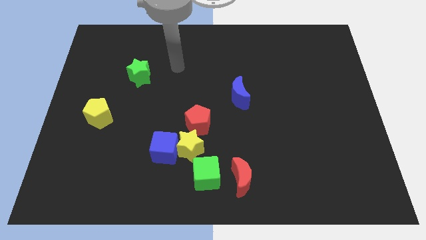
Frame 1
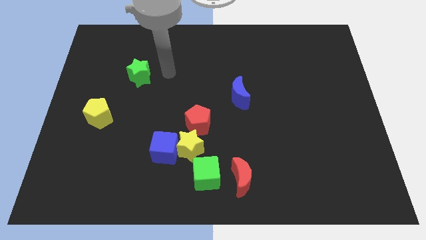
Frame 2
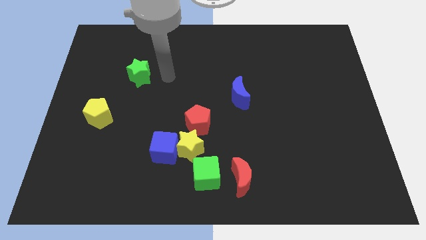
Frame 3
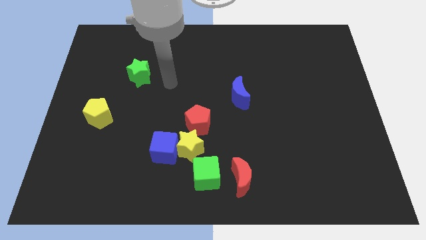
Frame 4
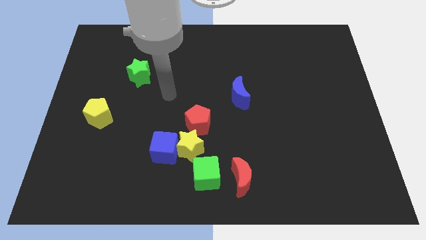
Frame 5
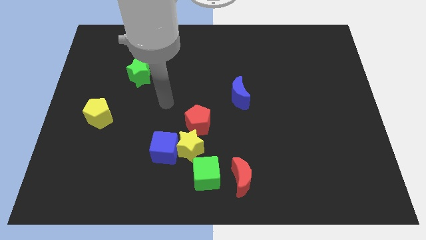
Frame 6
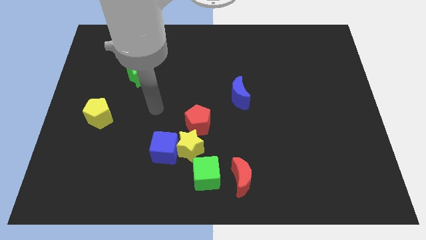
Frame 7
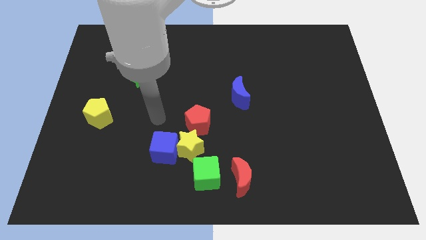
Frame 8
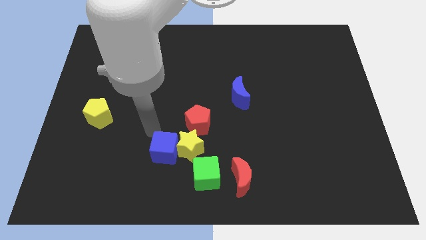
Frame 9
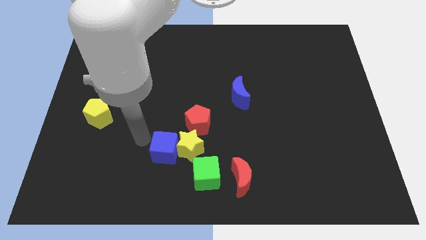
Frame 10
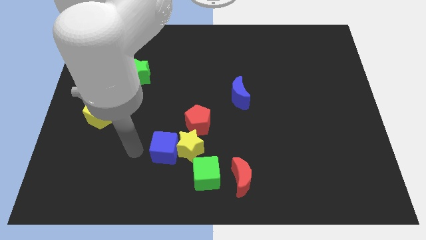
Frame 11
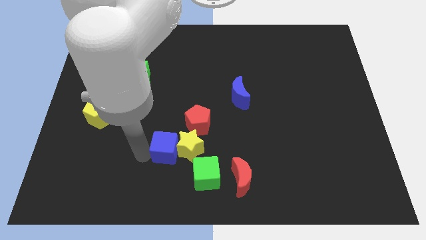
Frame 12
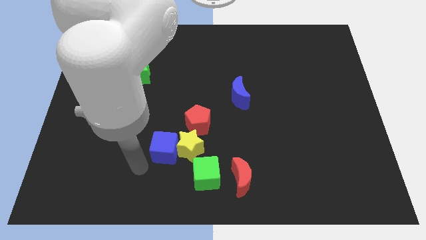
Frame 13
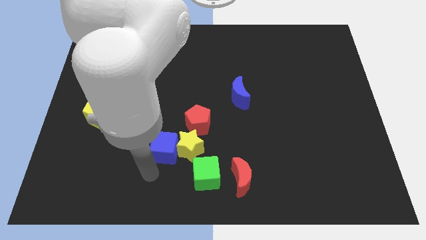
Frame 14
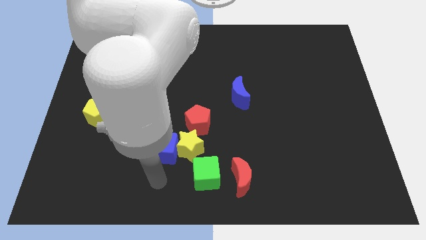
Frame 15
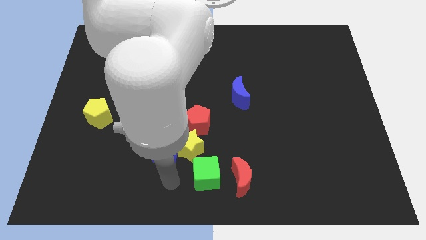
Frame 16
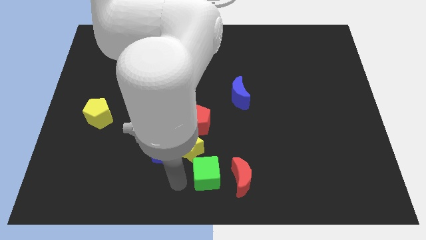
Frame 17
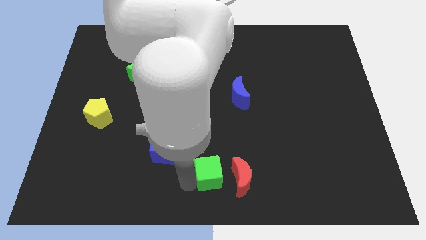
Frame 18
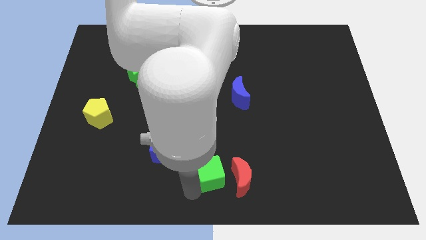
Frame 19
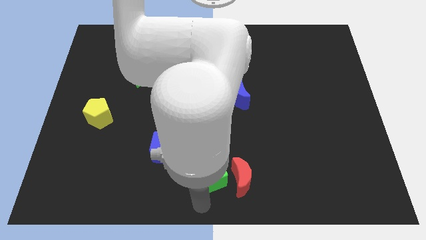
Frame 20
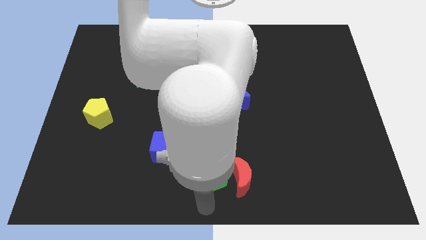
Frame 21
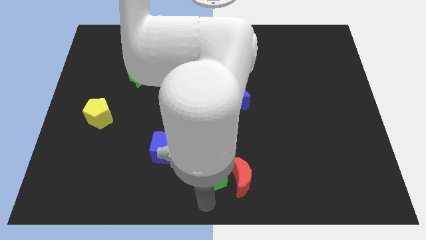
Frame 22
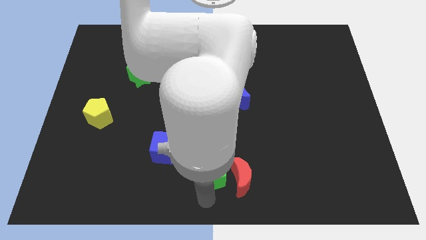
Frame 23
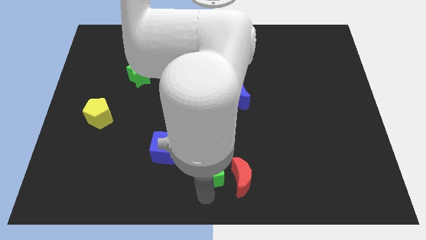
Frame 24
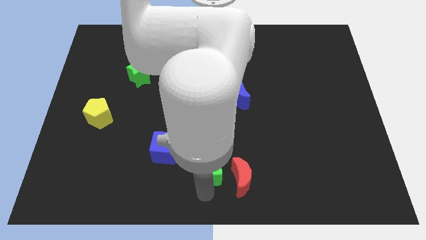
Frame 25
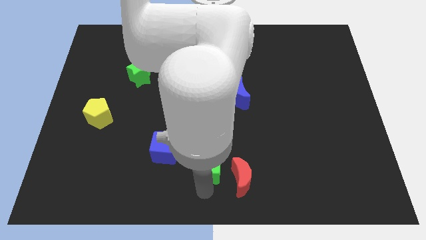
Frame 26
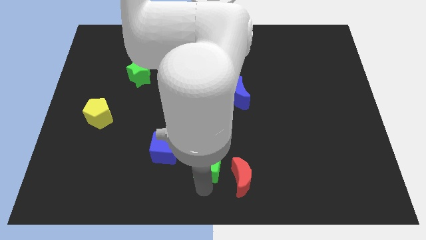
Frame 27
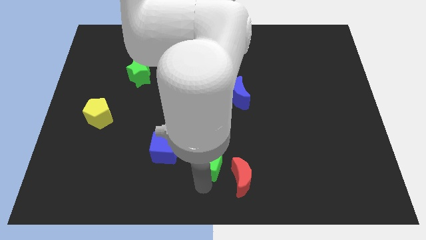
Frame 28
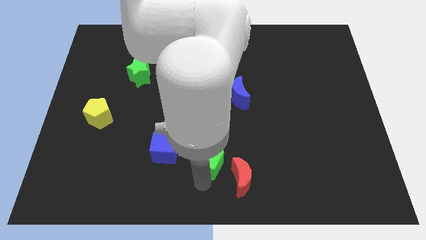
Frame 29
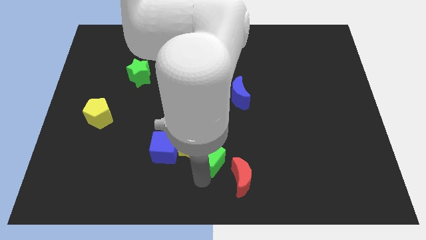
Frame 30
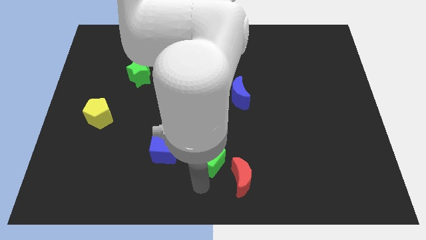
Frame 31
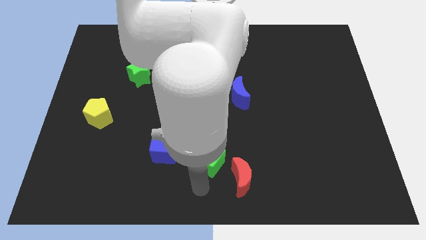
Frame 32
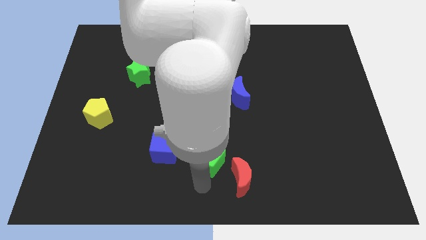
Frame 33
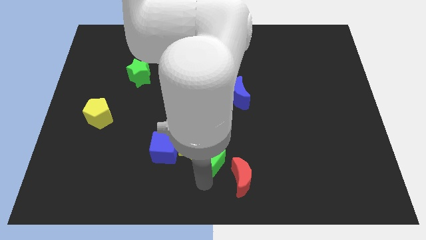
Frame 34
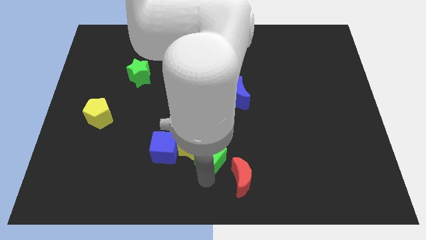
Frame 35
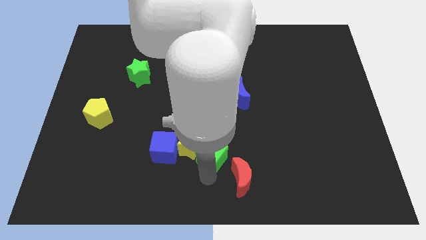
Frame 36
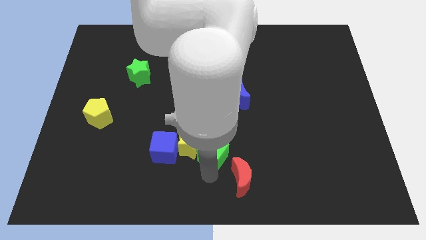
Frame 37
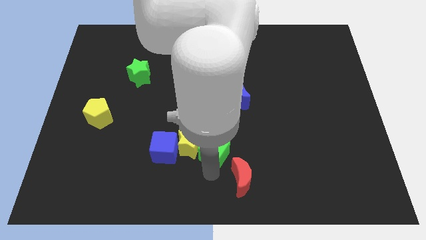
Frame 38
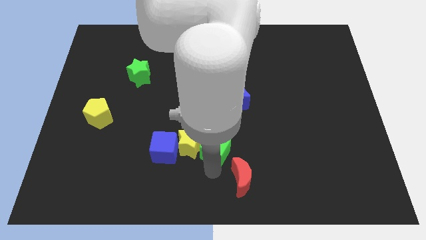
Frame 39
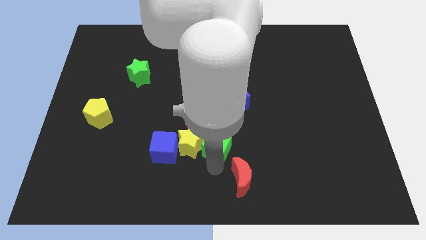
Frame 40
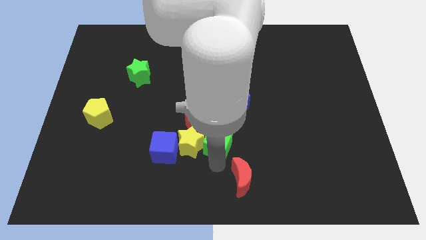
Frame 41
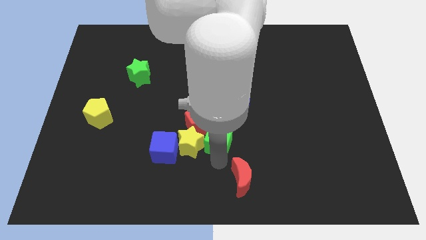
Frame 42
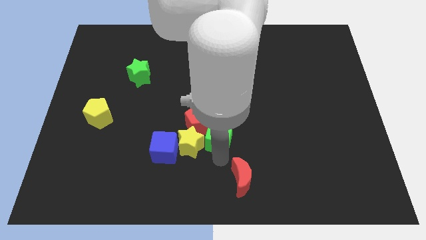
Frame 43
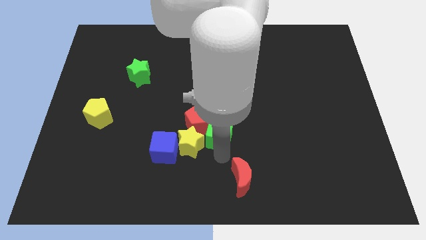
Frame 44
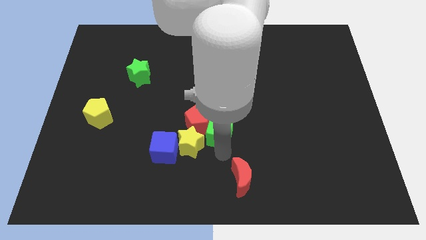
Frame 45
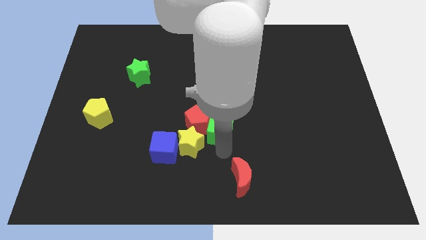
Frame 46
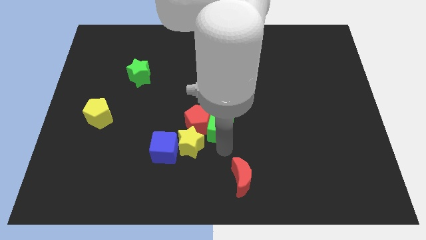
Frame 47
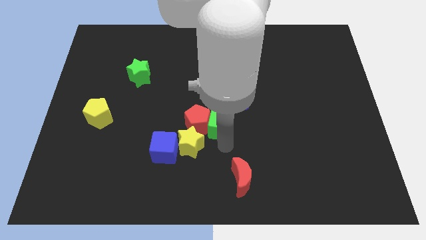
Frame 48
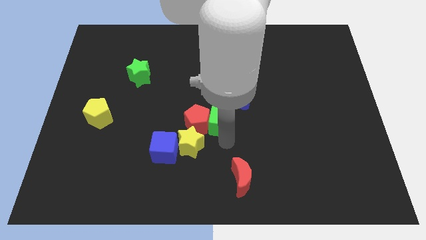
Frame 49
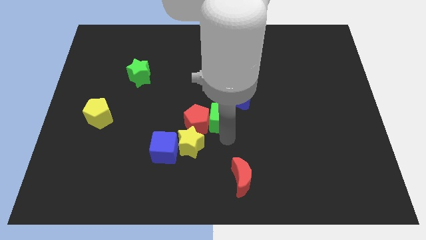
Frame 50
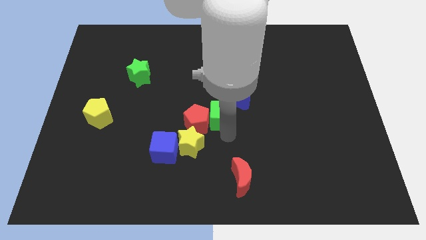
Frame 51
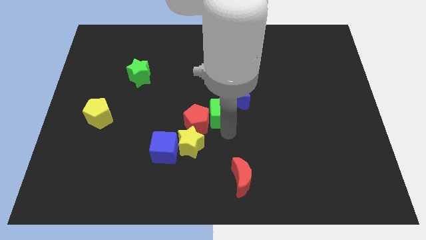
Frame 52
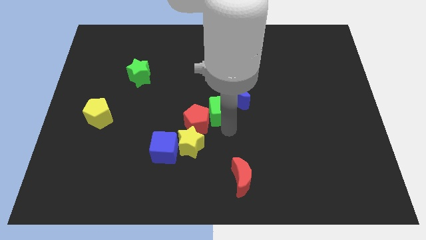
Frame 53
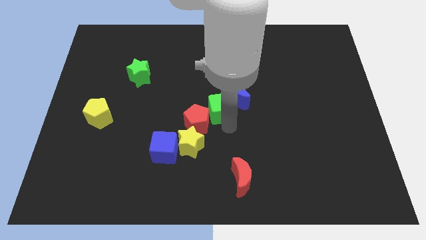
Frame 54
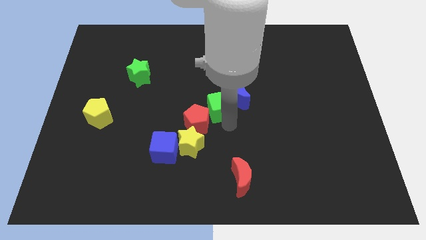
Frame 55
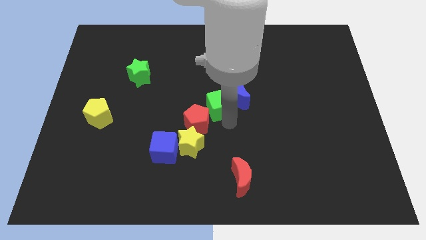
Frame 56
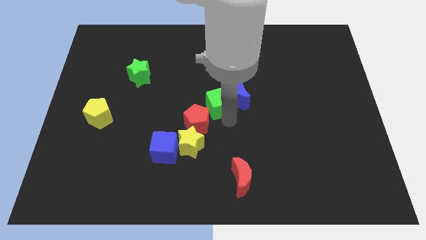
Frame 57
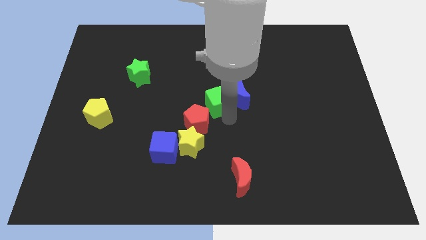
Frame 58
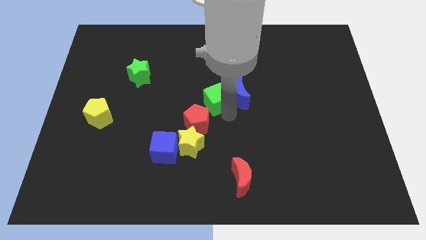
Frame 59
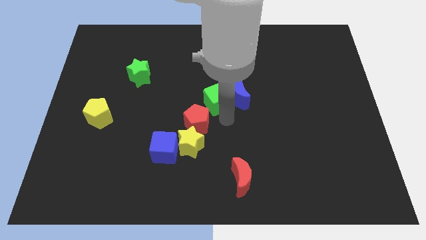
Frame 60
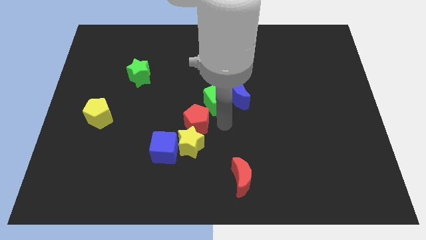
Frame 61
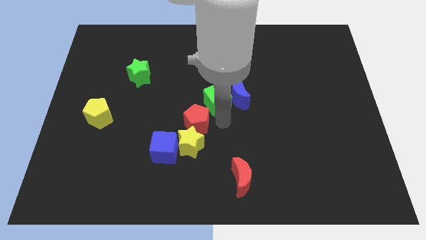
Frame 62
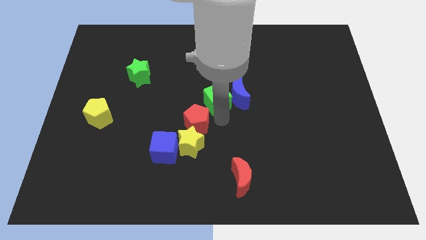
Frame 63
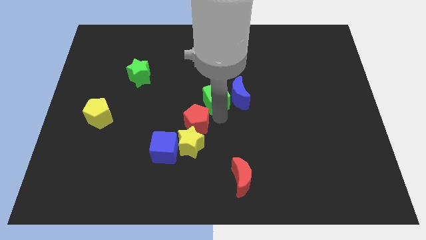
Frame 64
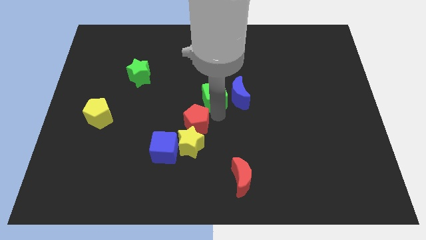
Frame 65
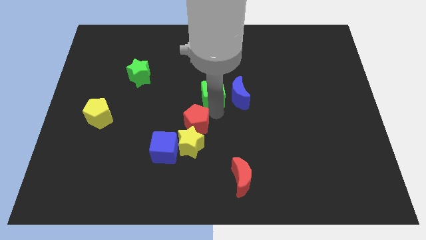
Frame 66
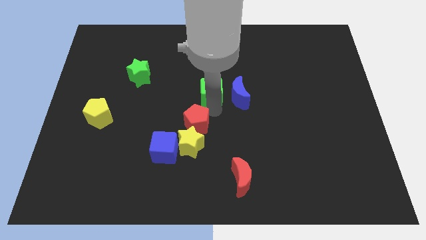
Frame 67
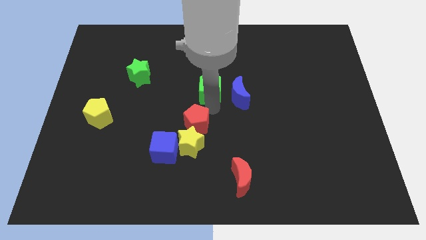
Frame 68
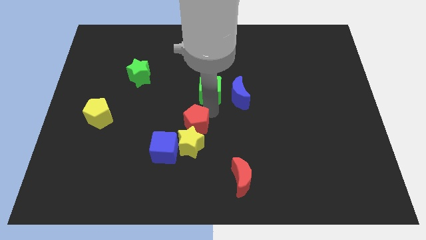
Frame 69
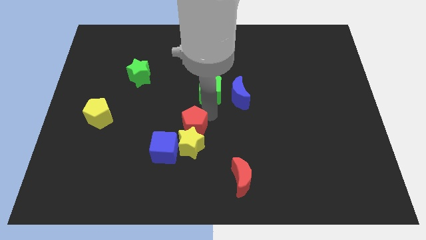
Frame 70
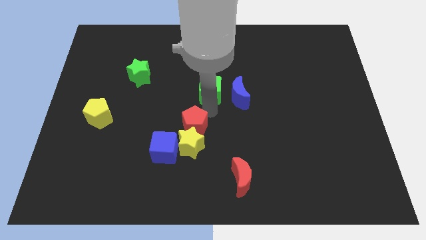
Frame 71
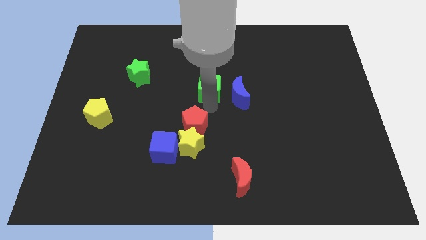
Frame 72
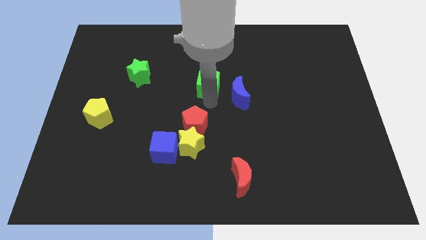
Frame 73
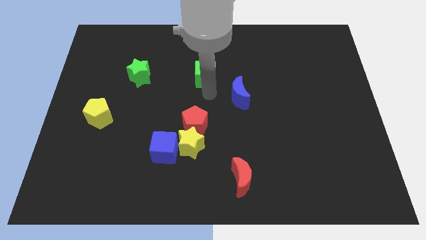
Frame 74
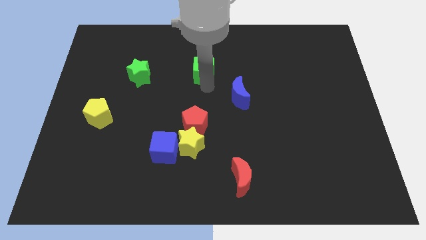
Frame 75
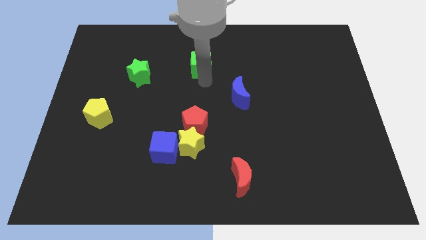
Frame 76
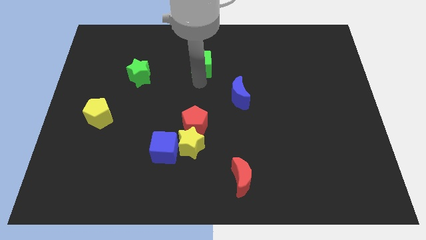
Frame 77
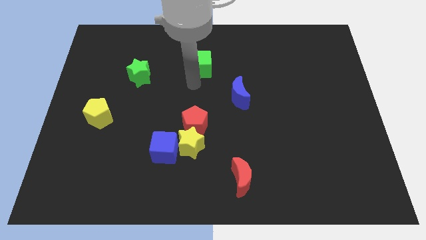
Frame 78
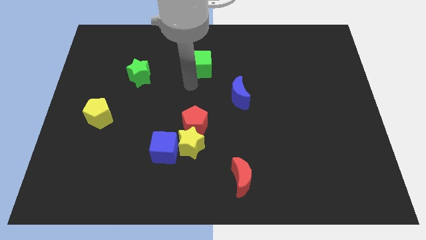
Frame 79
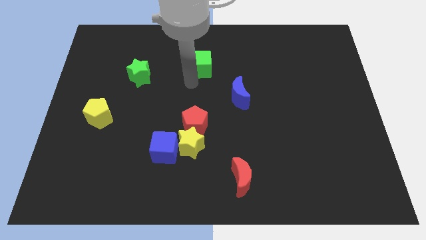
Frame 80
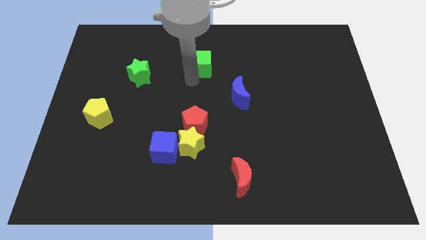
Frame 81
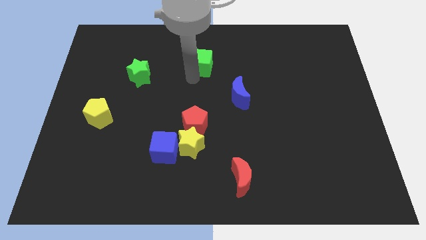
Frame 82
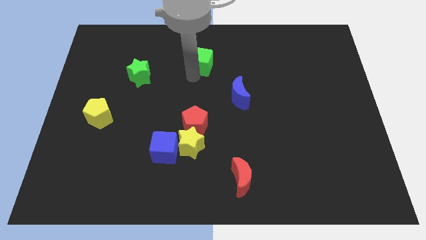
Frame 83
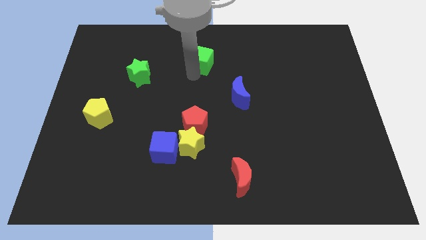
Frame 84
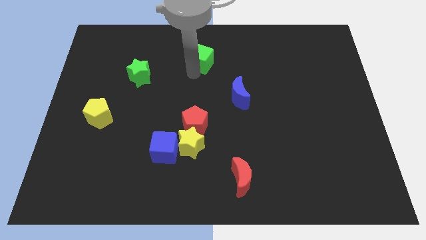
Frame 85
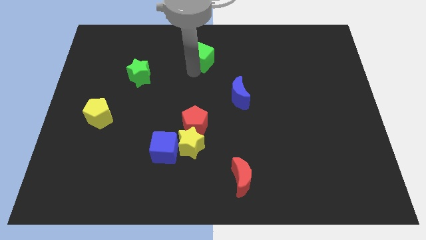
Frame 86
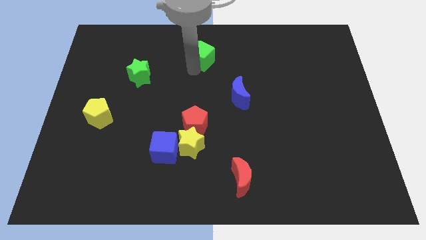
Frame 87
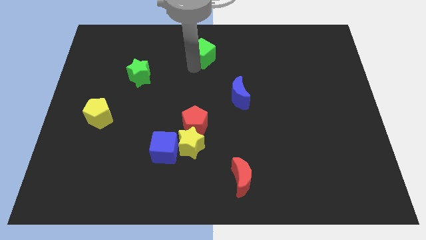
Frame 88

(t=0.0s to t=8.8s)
slide the green cube to the top side
